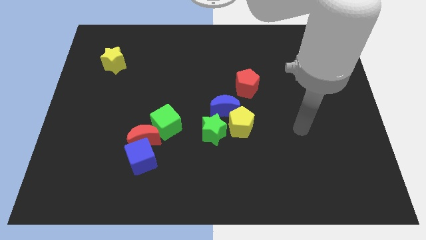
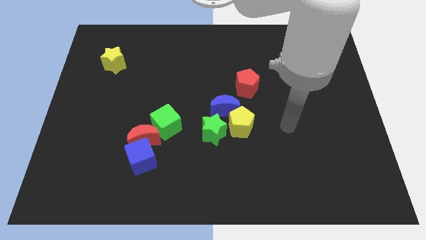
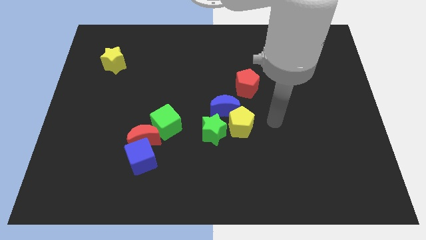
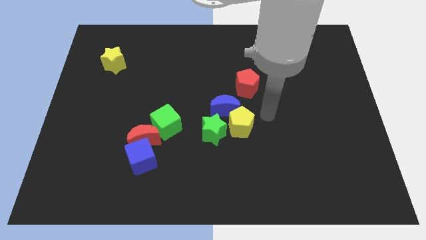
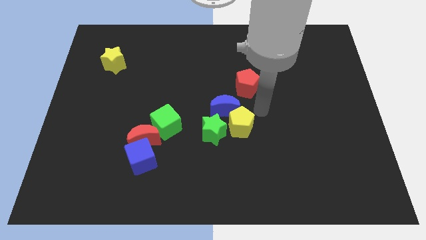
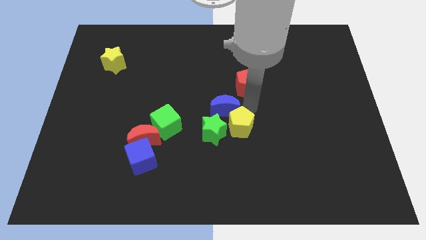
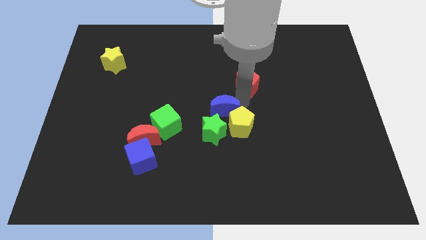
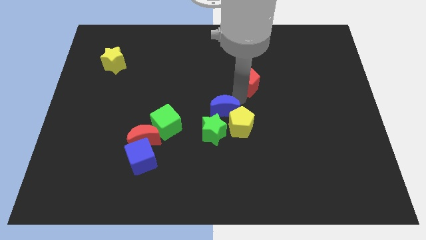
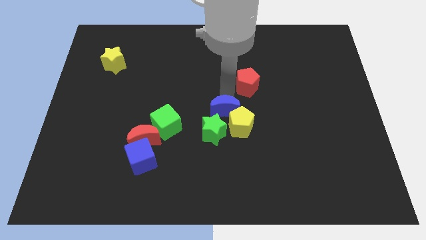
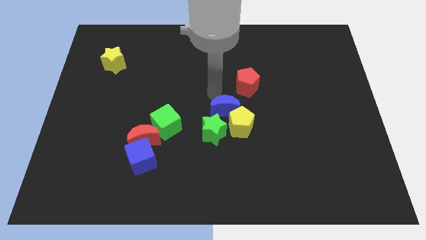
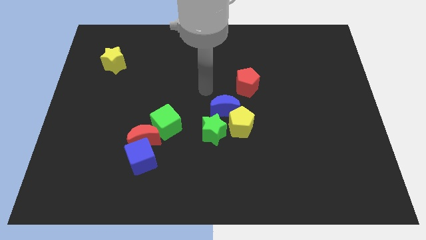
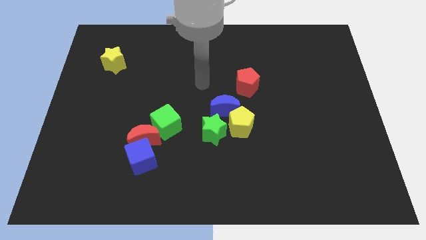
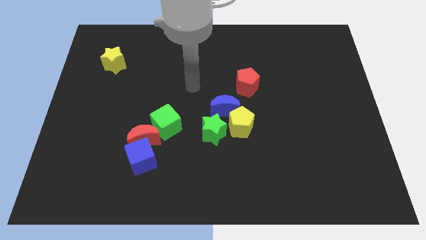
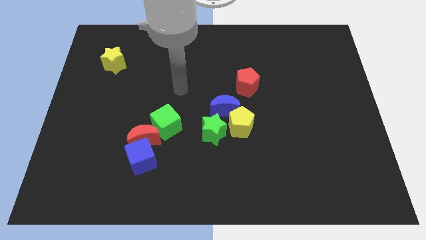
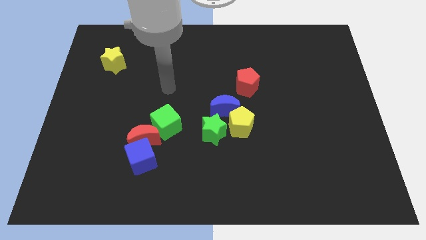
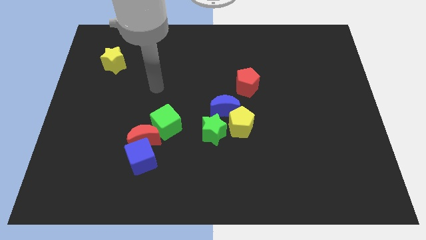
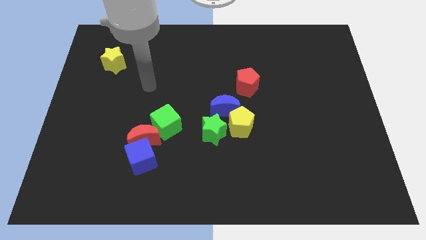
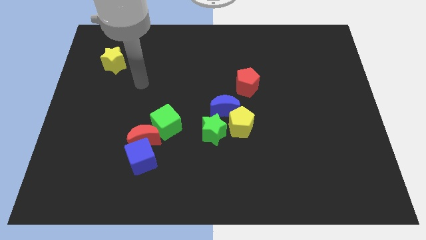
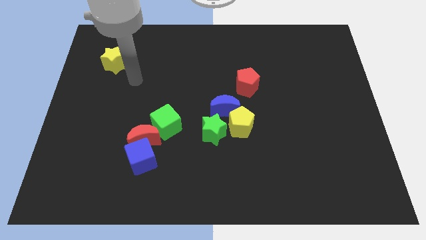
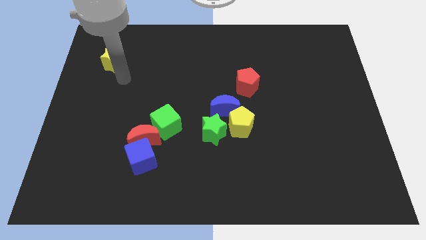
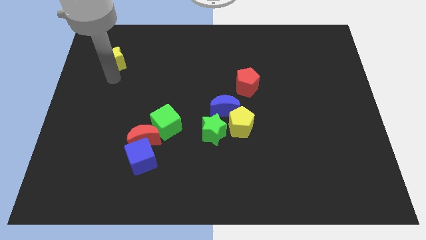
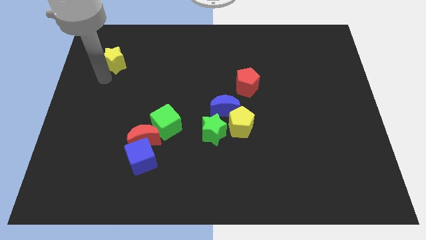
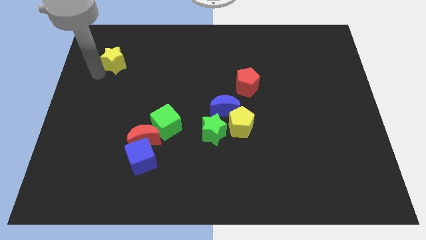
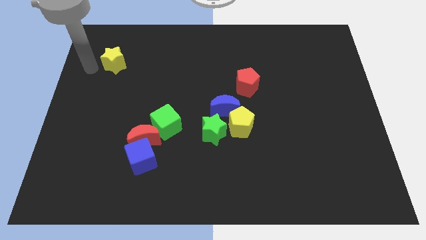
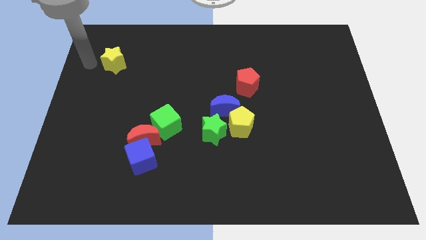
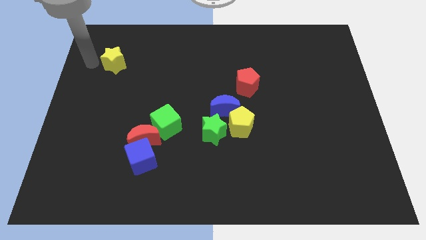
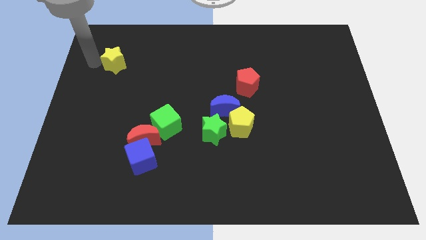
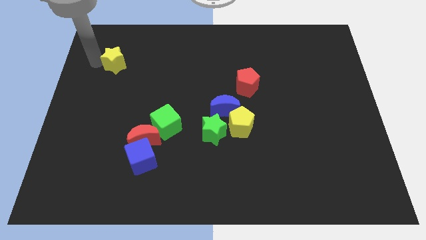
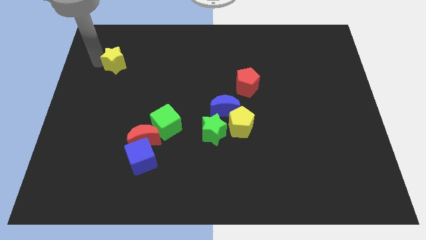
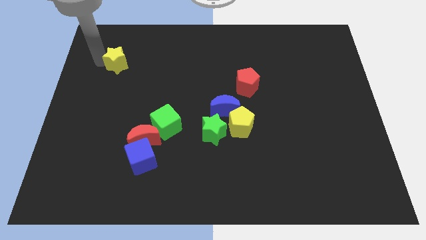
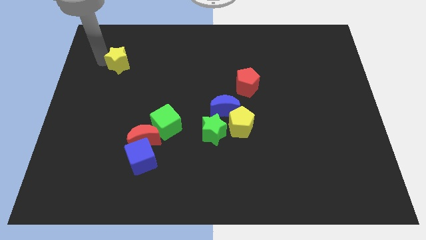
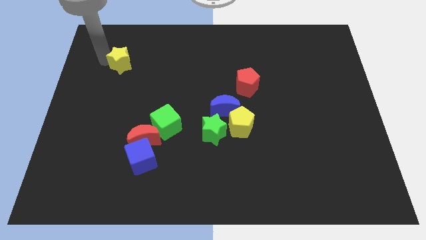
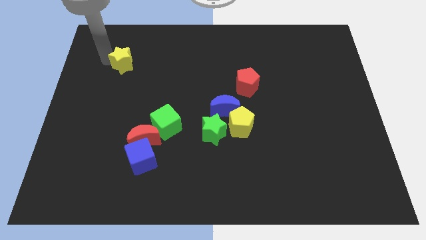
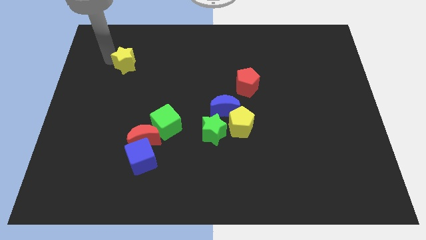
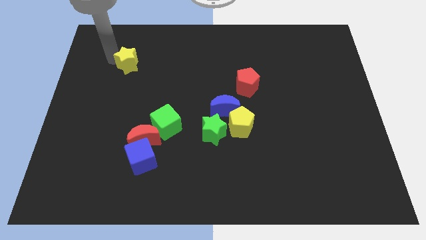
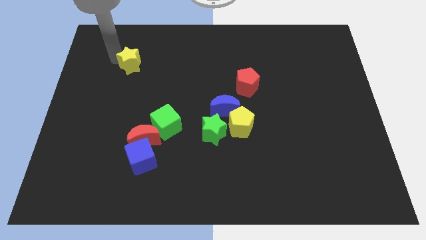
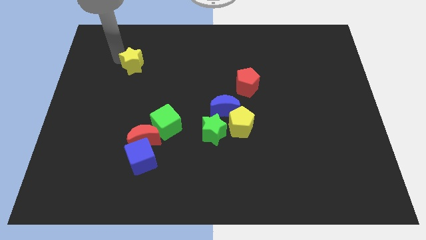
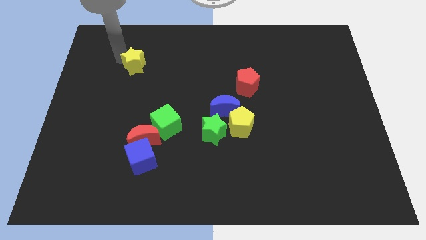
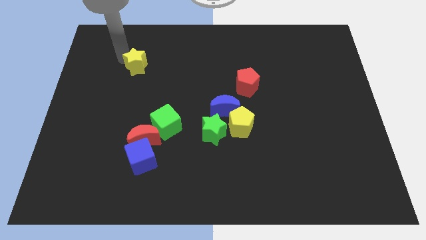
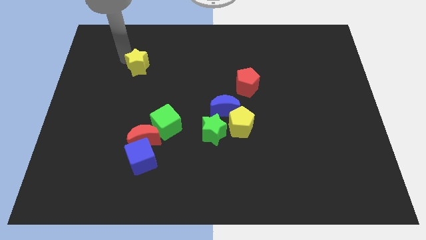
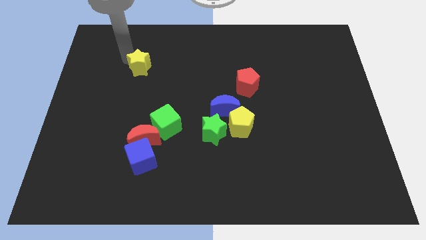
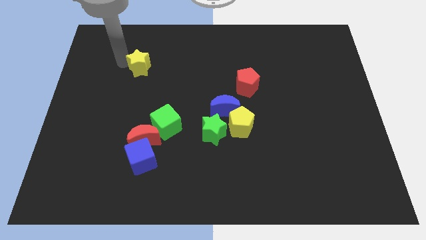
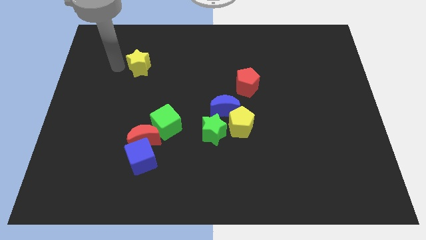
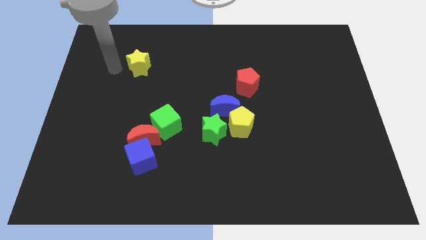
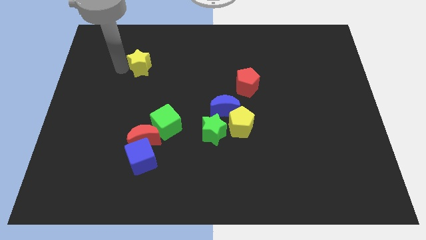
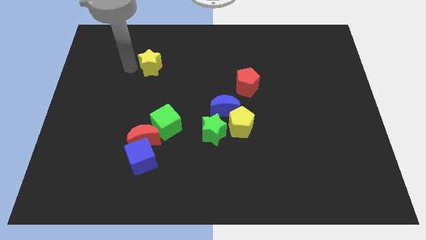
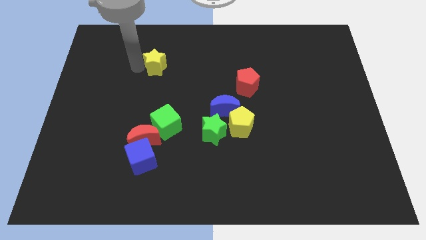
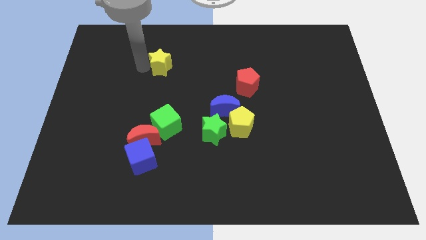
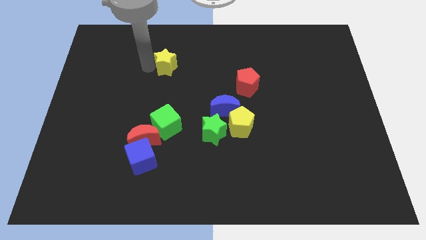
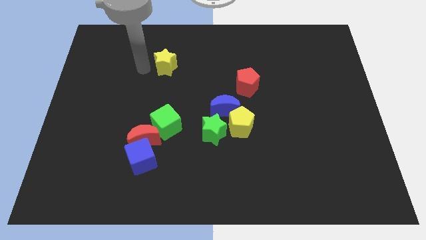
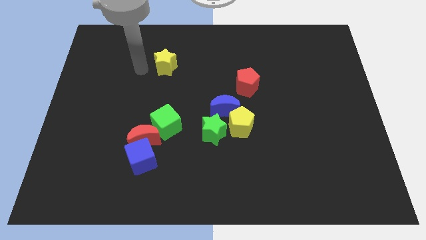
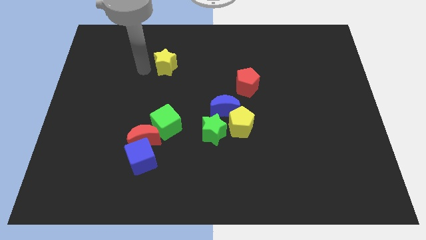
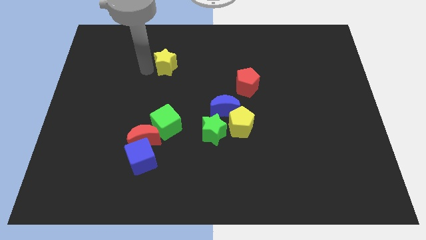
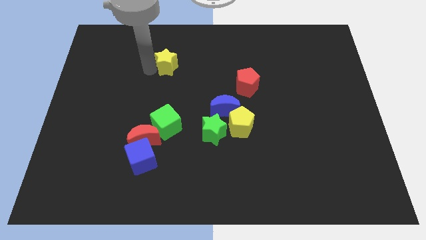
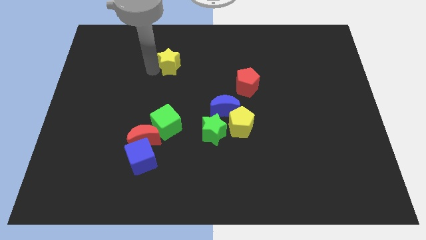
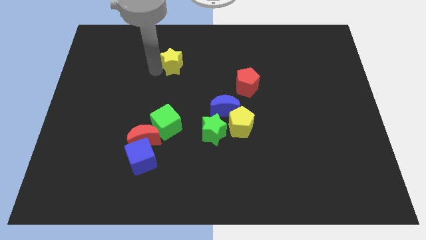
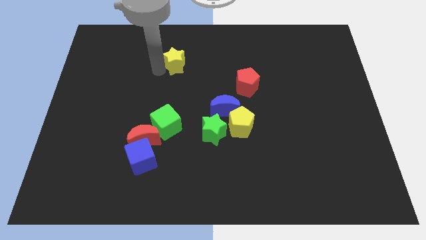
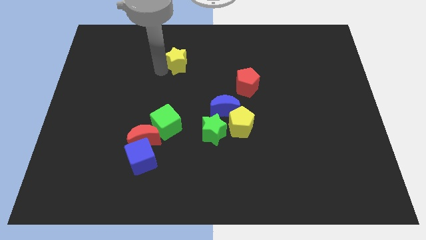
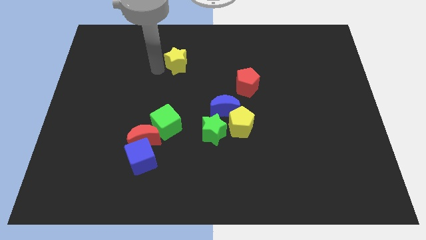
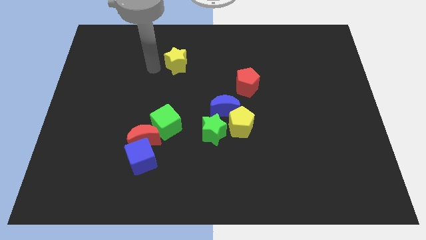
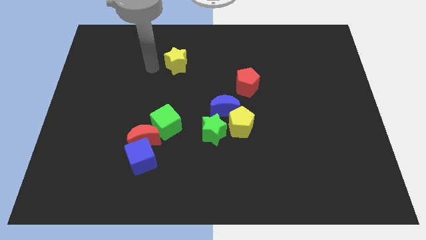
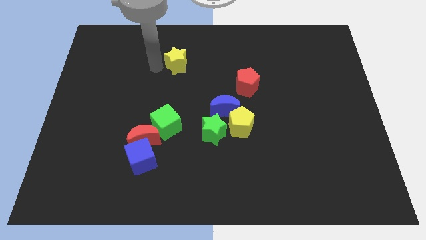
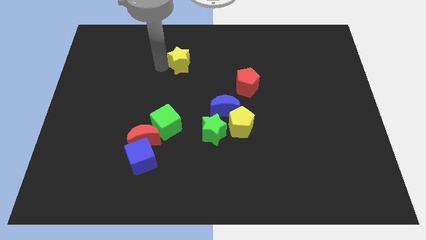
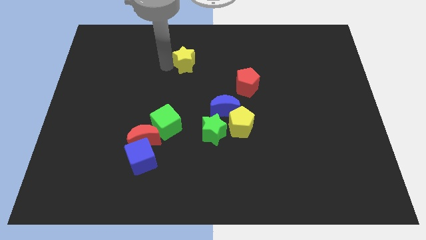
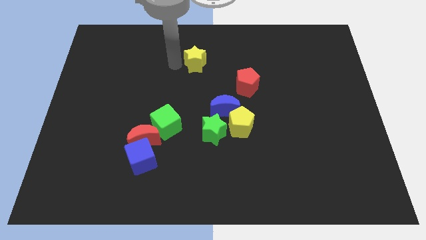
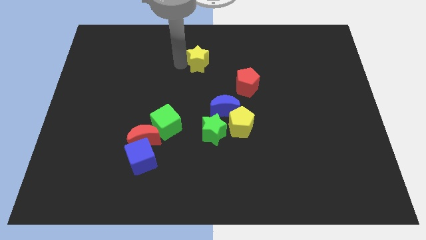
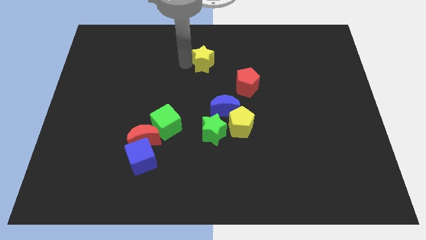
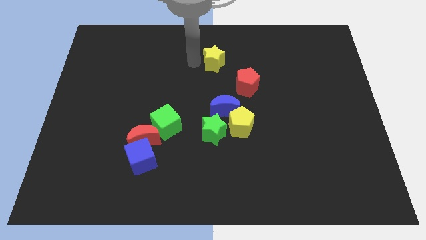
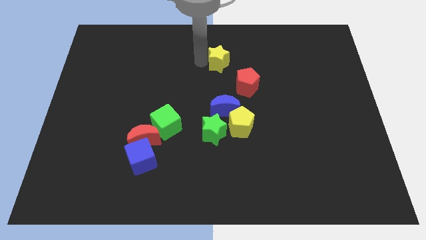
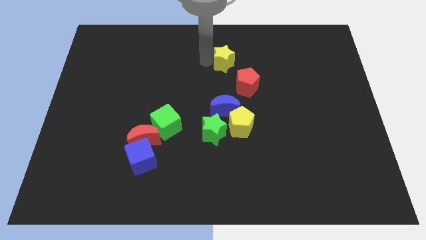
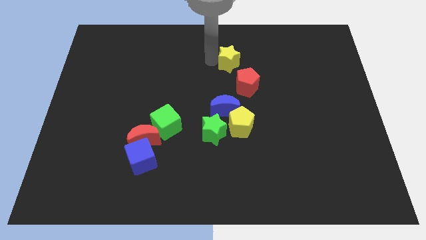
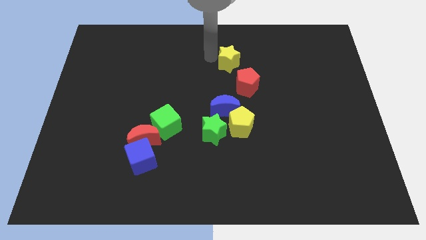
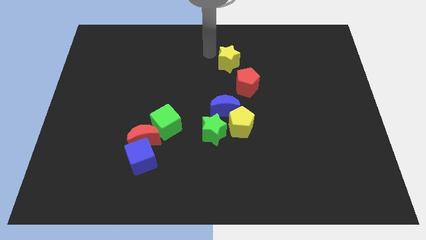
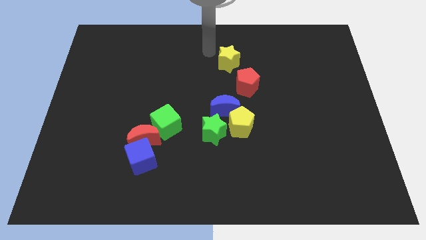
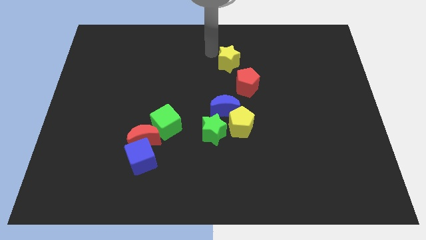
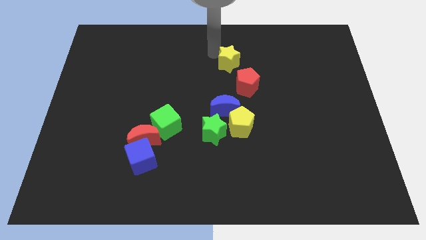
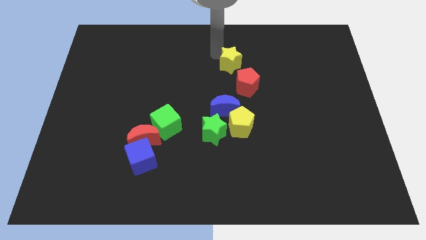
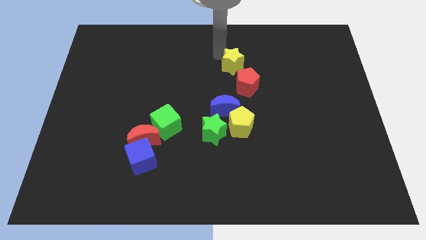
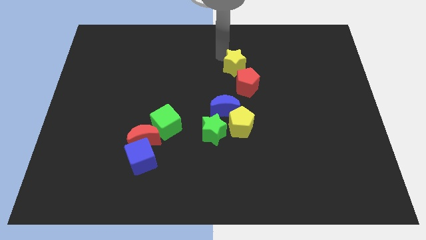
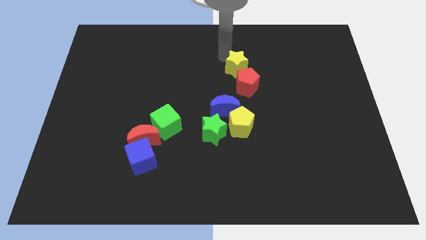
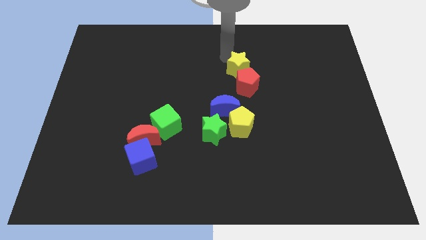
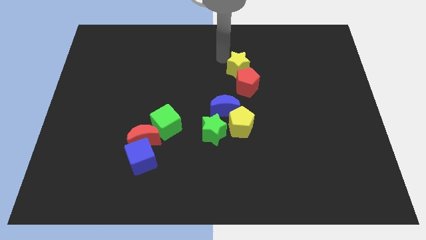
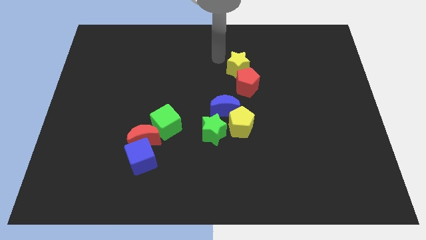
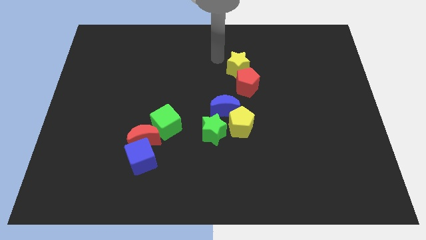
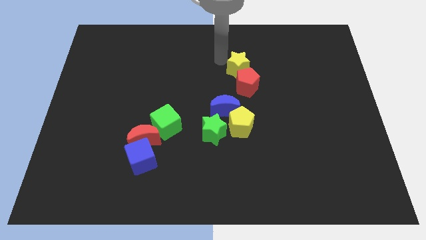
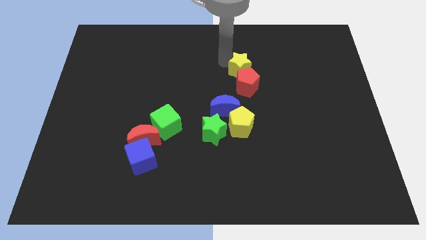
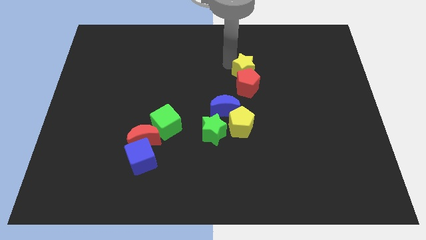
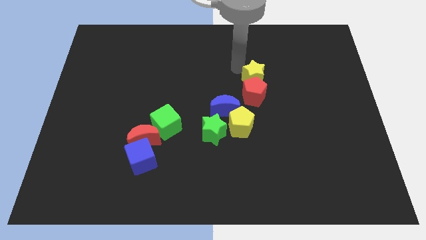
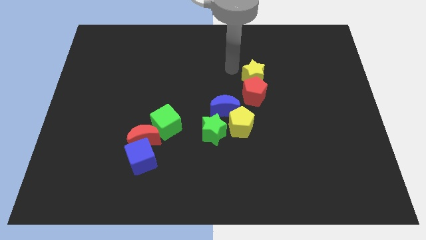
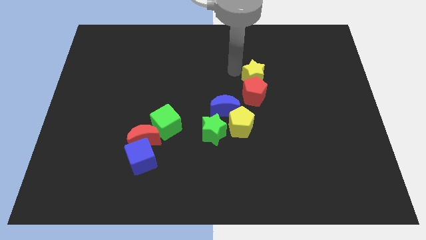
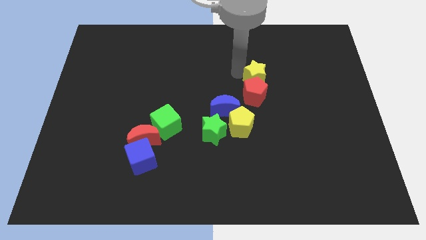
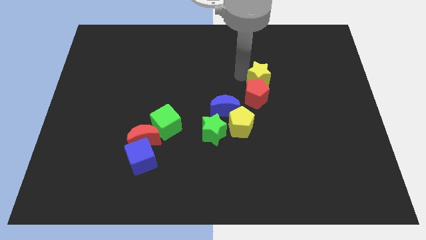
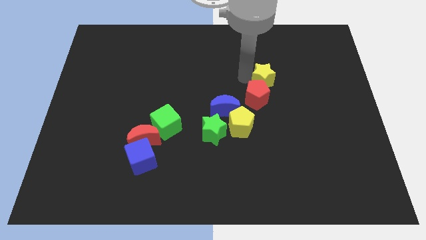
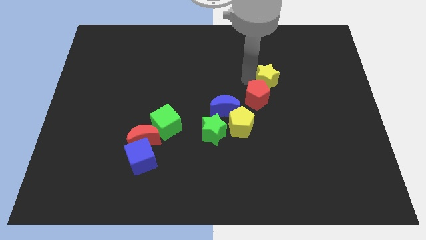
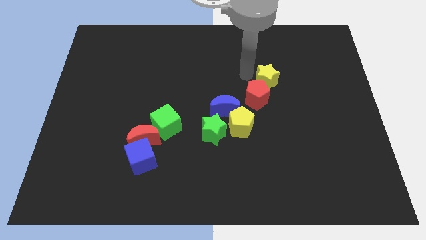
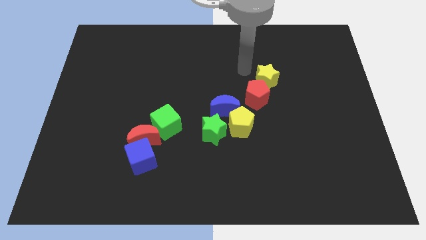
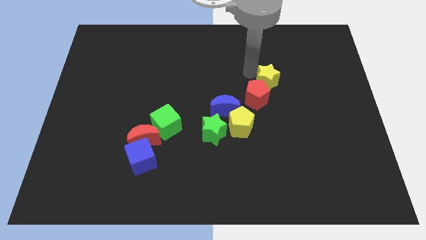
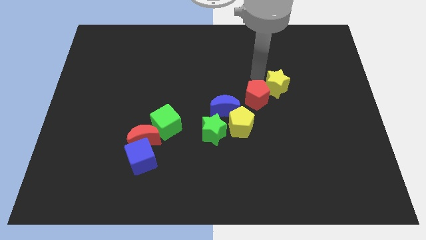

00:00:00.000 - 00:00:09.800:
push the yellow star just right of the red pentagon
